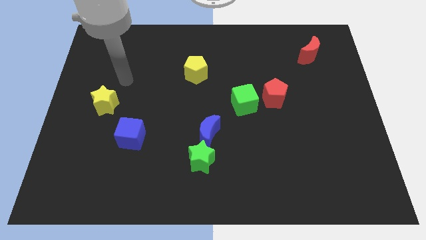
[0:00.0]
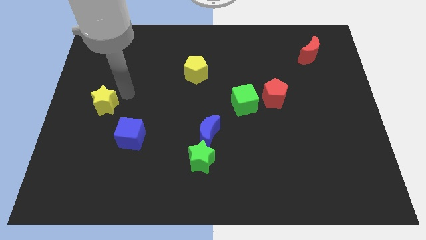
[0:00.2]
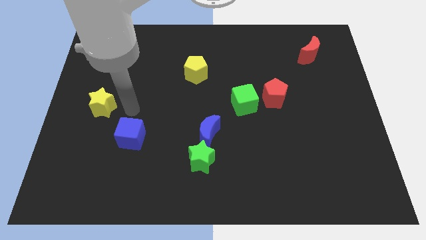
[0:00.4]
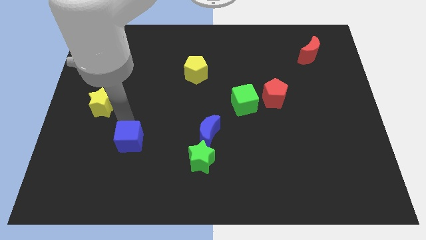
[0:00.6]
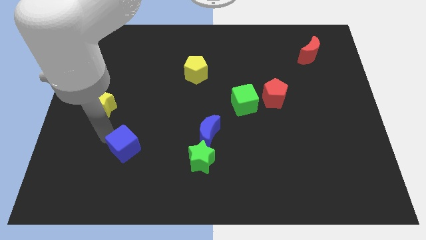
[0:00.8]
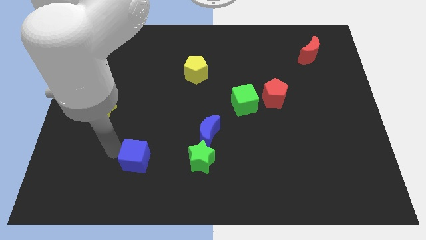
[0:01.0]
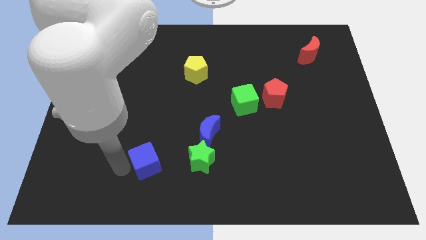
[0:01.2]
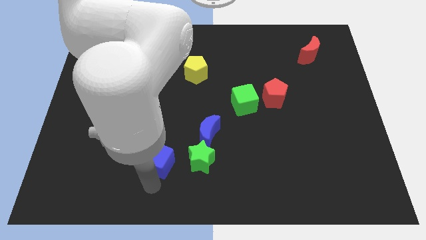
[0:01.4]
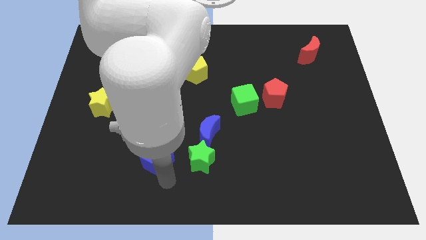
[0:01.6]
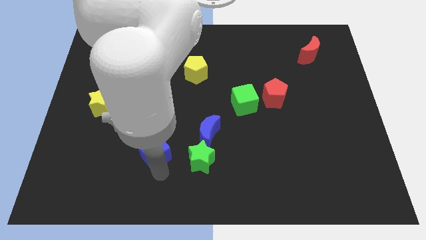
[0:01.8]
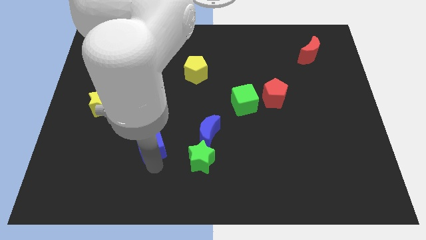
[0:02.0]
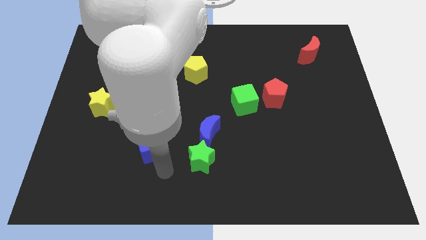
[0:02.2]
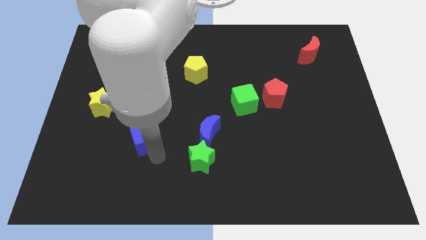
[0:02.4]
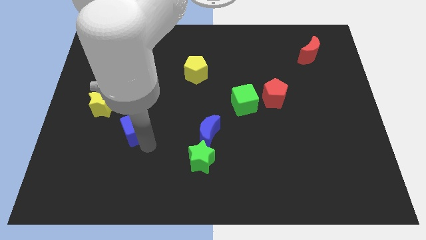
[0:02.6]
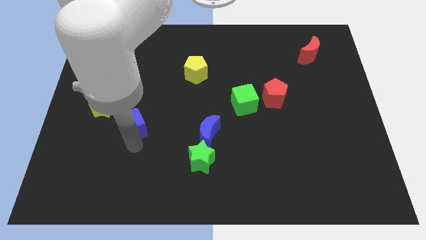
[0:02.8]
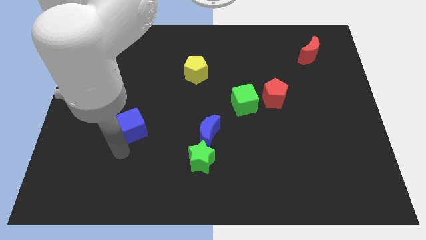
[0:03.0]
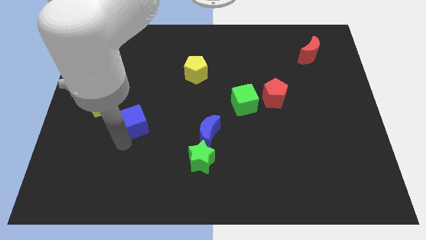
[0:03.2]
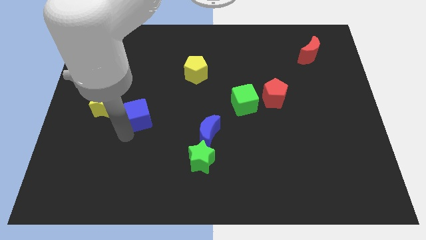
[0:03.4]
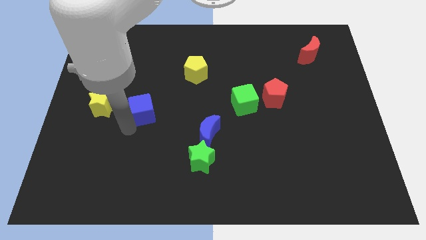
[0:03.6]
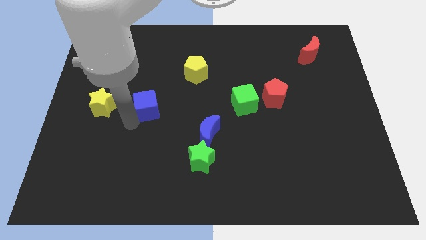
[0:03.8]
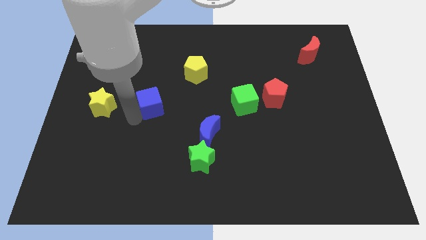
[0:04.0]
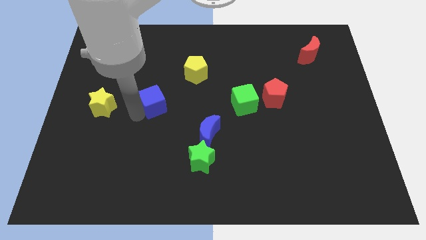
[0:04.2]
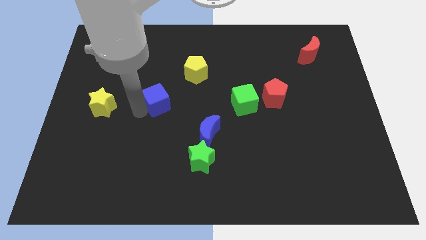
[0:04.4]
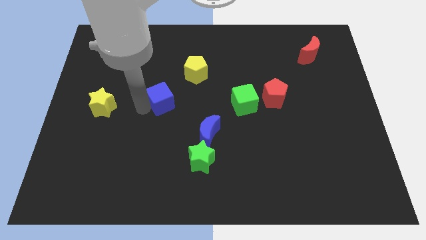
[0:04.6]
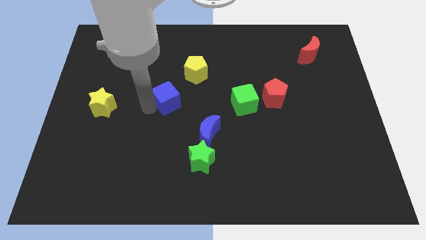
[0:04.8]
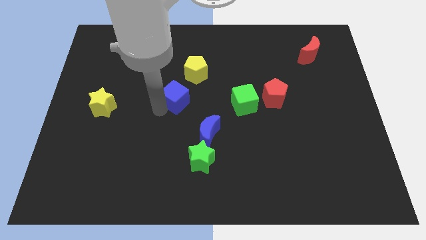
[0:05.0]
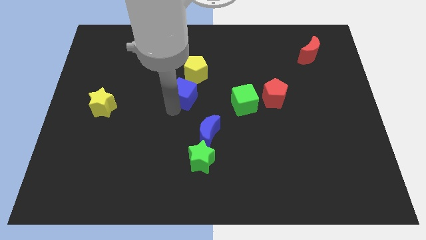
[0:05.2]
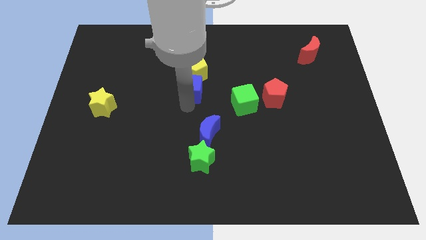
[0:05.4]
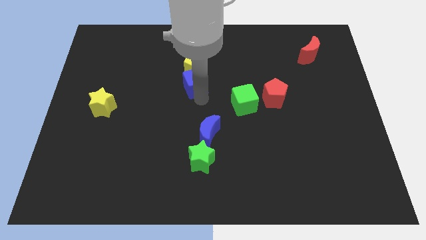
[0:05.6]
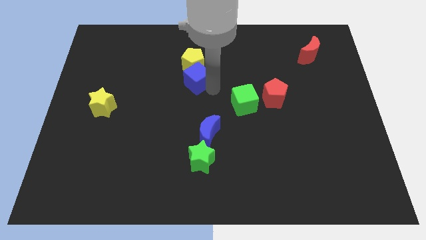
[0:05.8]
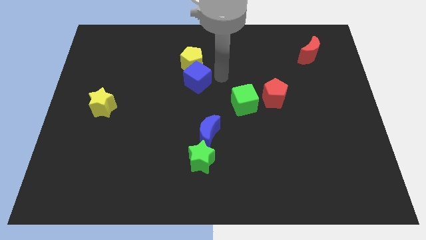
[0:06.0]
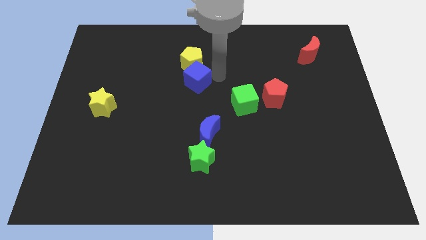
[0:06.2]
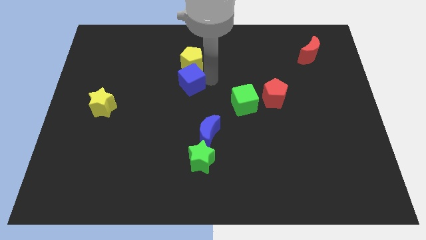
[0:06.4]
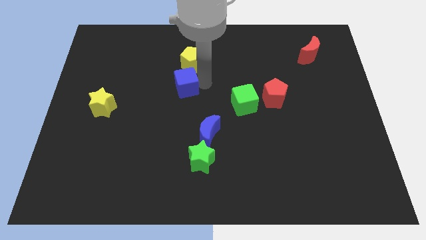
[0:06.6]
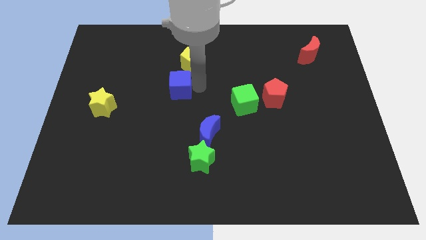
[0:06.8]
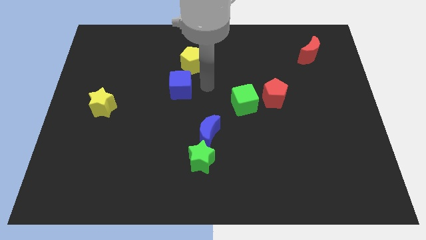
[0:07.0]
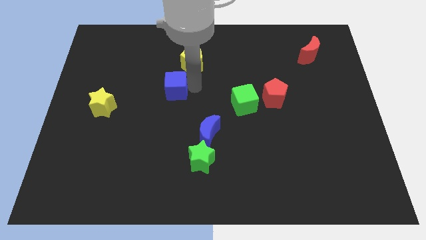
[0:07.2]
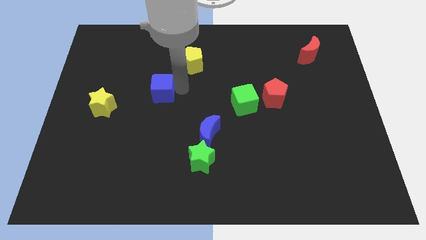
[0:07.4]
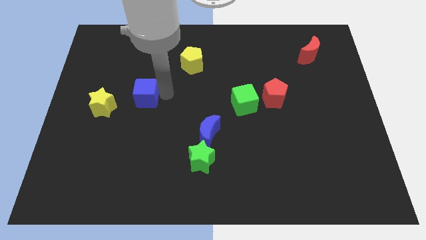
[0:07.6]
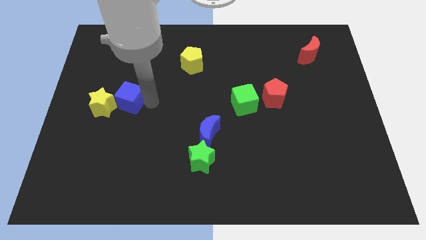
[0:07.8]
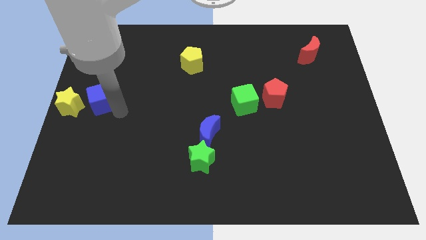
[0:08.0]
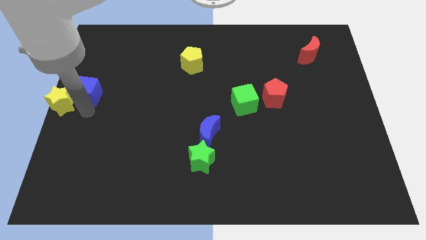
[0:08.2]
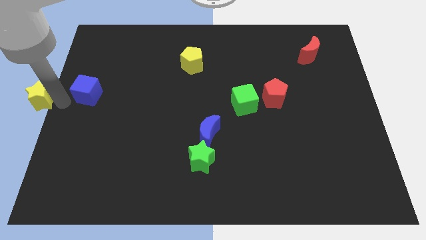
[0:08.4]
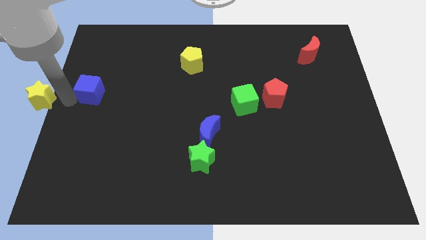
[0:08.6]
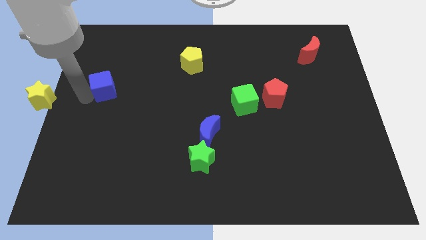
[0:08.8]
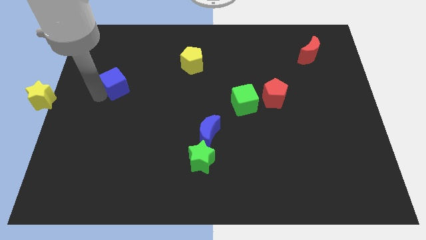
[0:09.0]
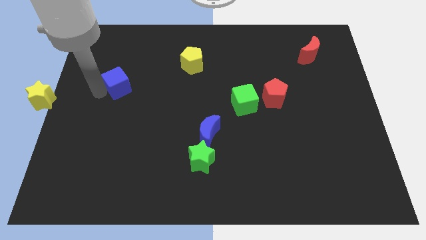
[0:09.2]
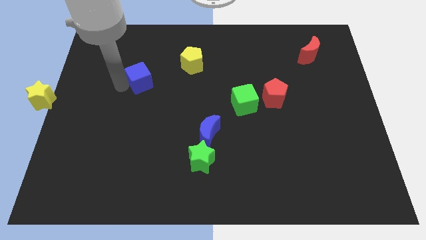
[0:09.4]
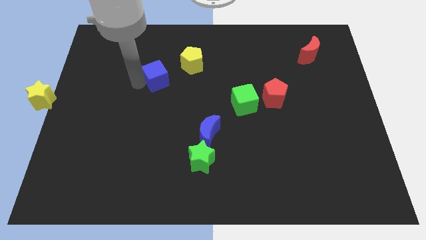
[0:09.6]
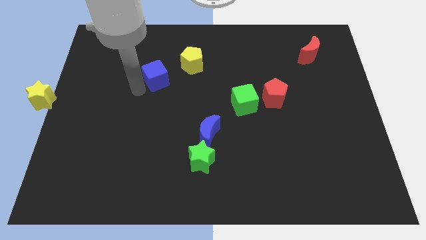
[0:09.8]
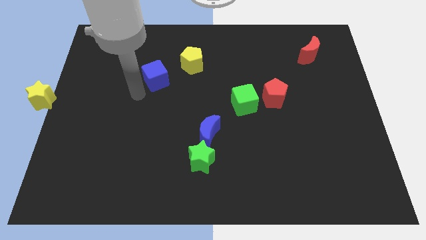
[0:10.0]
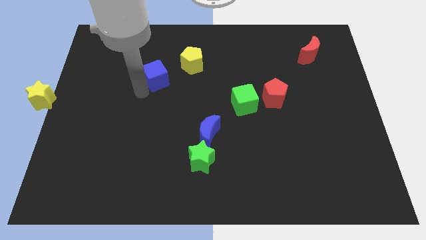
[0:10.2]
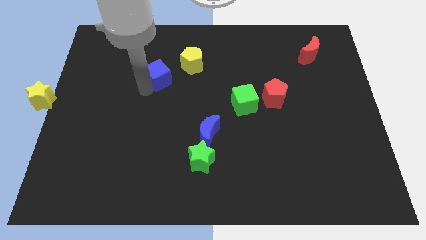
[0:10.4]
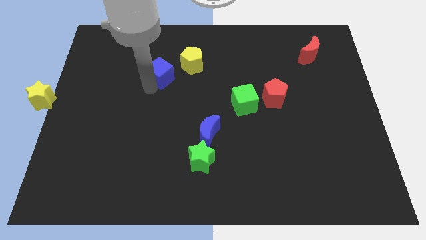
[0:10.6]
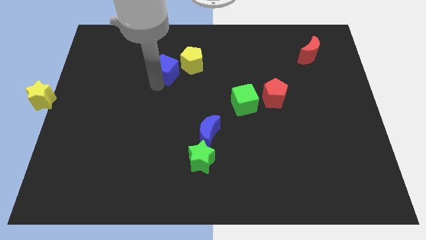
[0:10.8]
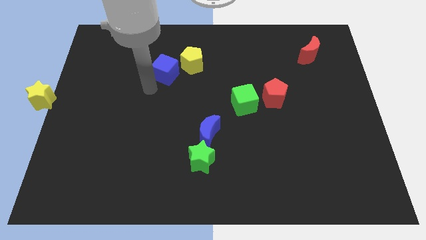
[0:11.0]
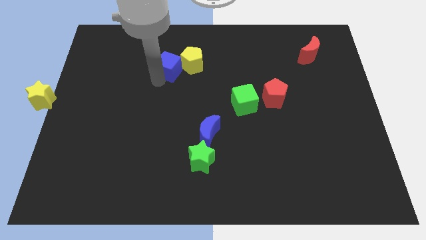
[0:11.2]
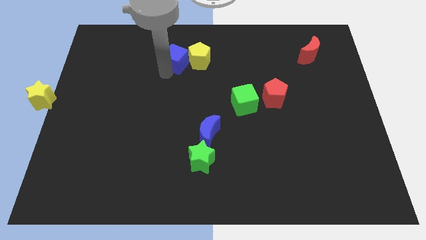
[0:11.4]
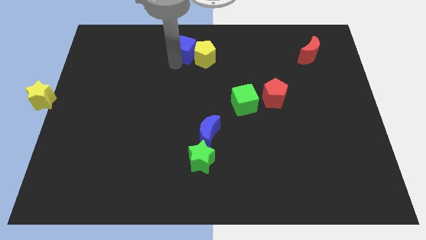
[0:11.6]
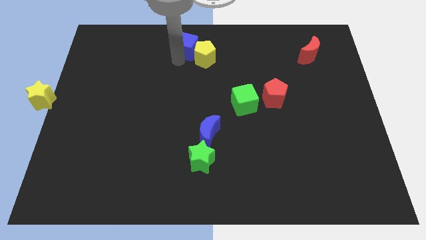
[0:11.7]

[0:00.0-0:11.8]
put the blue cube to the top

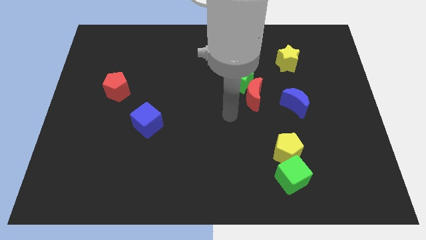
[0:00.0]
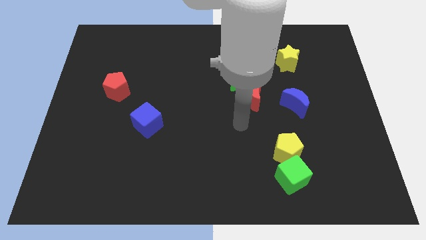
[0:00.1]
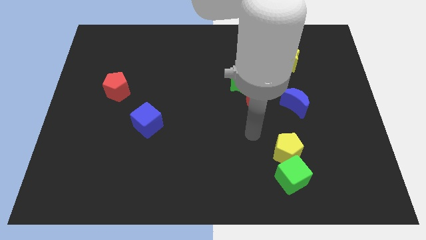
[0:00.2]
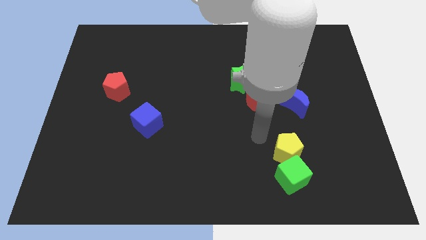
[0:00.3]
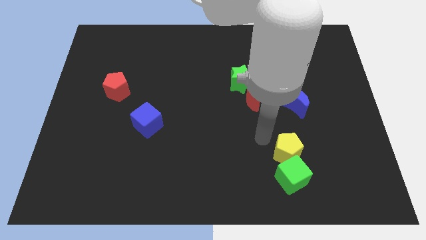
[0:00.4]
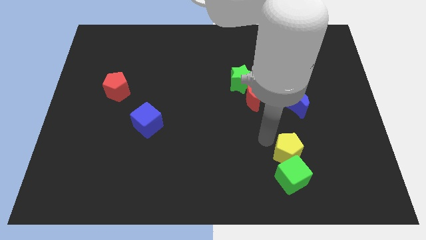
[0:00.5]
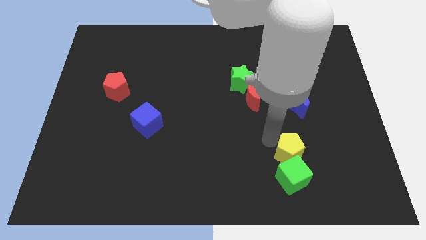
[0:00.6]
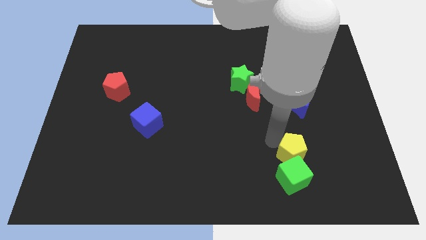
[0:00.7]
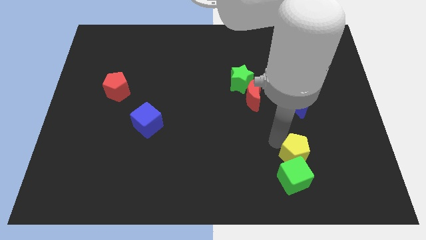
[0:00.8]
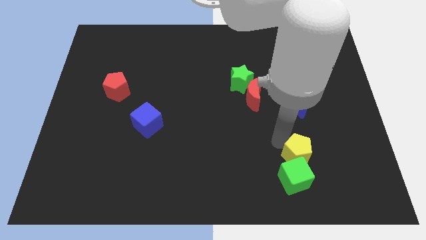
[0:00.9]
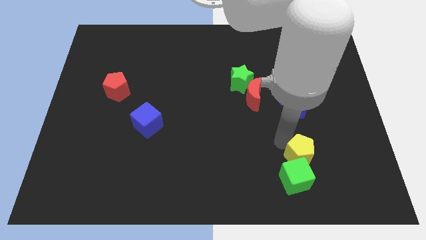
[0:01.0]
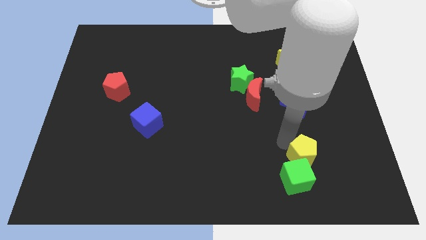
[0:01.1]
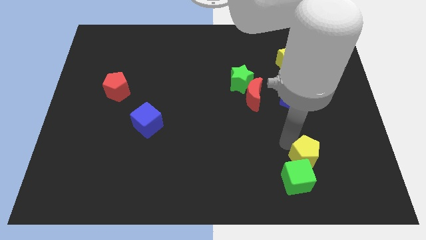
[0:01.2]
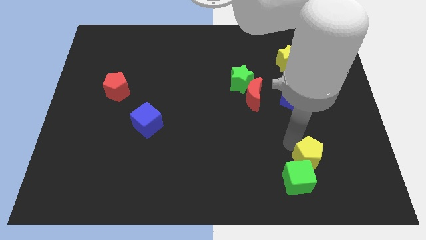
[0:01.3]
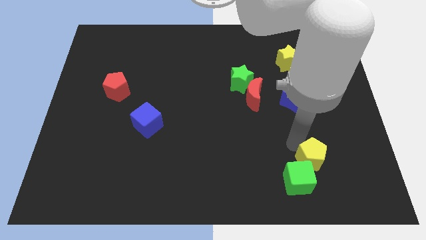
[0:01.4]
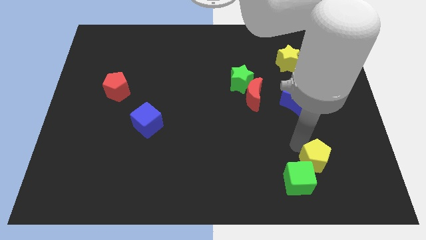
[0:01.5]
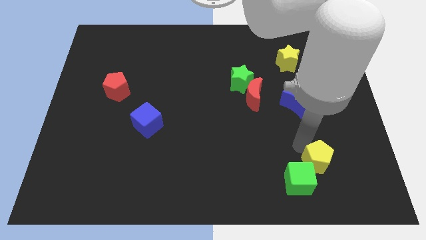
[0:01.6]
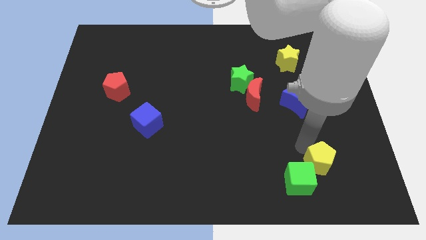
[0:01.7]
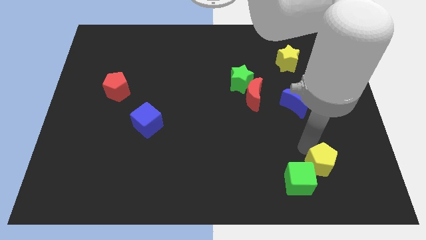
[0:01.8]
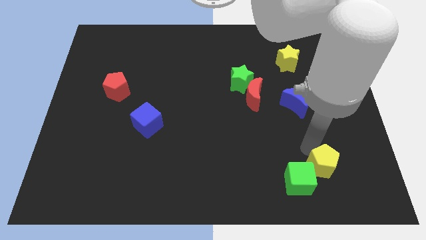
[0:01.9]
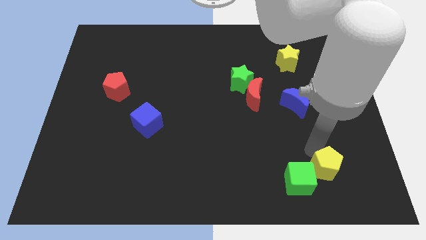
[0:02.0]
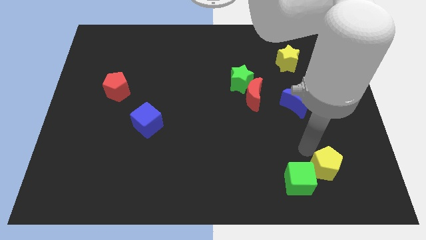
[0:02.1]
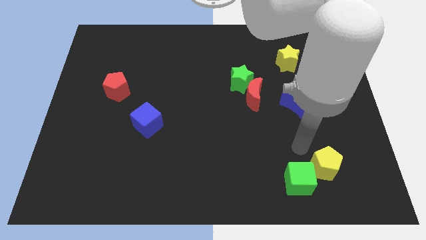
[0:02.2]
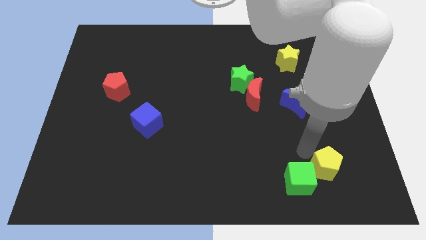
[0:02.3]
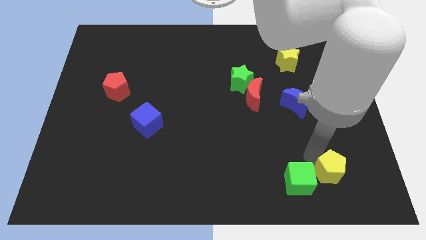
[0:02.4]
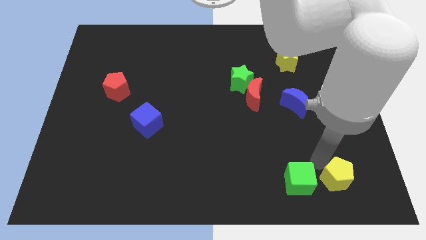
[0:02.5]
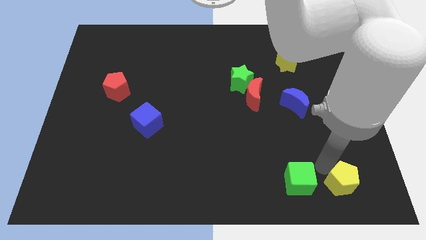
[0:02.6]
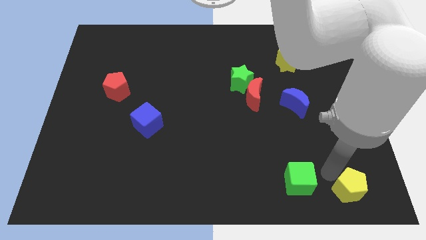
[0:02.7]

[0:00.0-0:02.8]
put the yellow pentagon to the bottom right of the board
